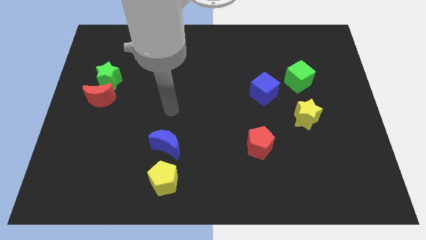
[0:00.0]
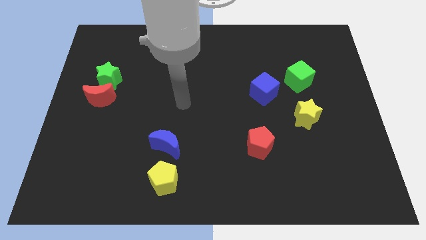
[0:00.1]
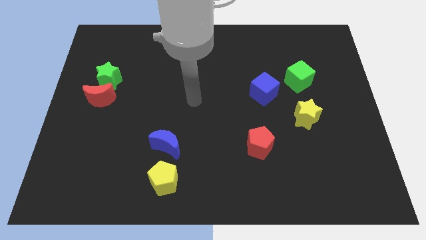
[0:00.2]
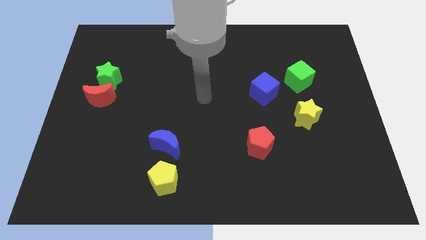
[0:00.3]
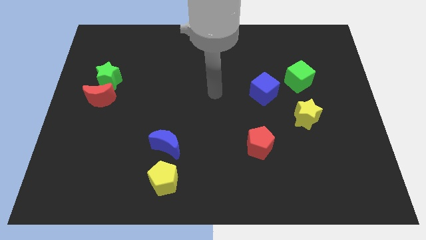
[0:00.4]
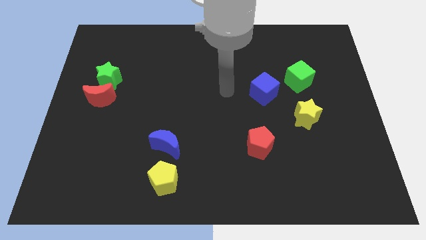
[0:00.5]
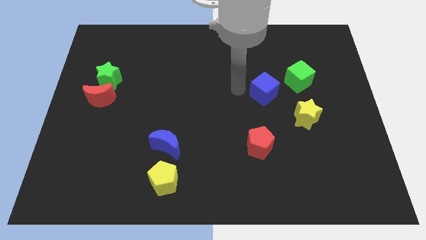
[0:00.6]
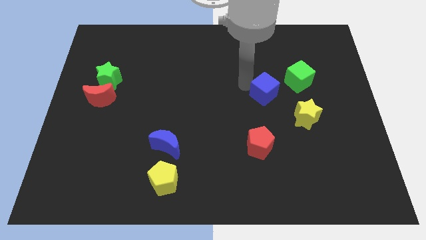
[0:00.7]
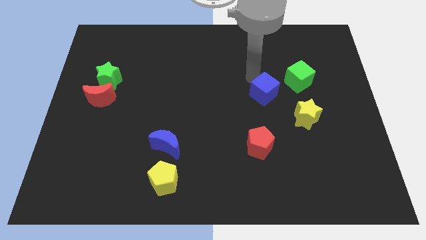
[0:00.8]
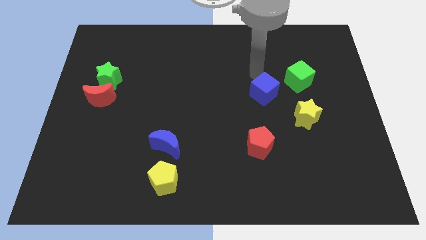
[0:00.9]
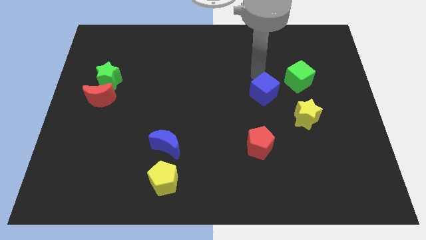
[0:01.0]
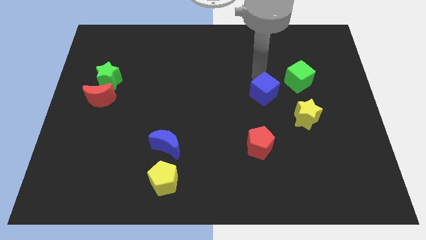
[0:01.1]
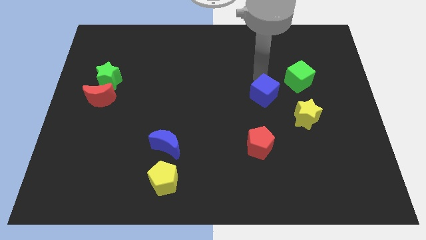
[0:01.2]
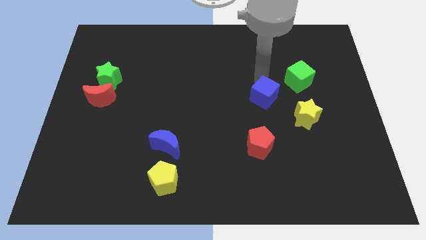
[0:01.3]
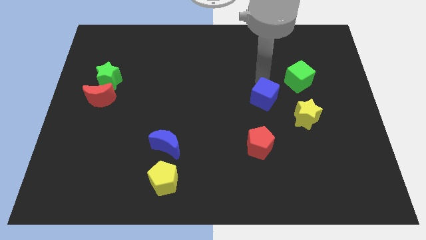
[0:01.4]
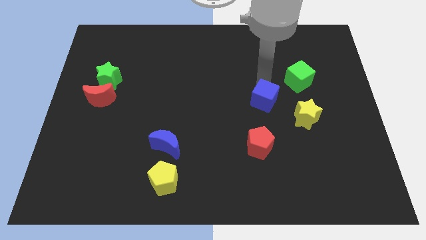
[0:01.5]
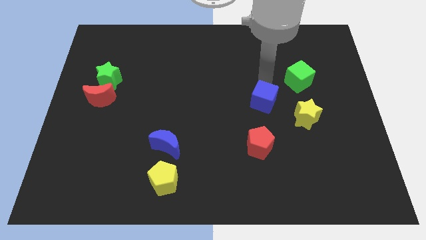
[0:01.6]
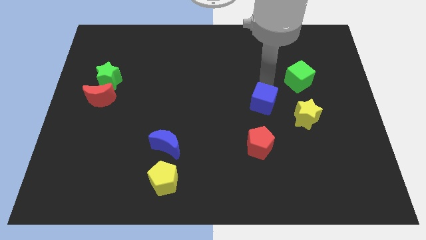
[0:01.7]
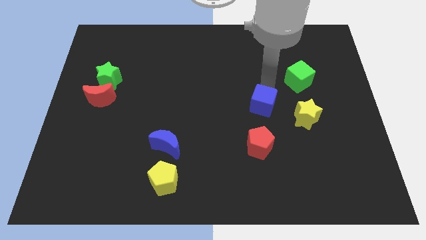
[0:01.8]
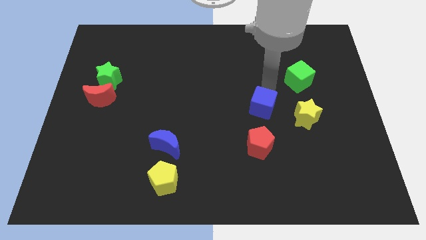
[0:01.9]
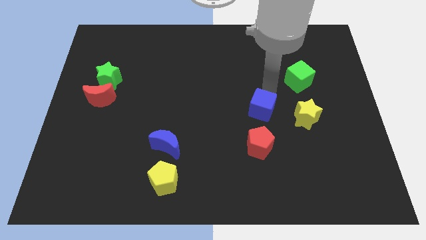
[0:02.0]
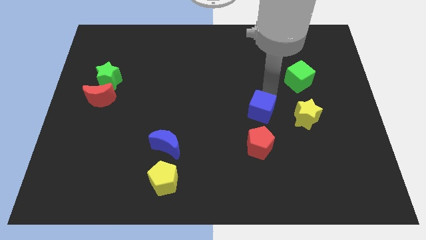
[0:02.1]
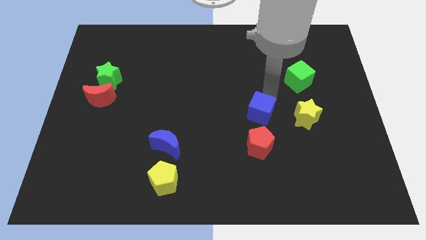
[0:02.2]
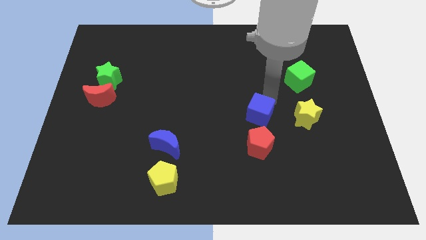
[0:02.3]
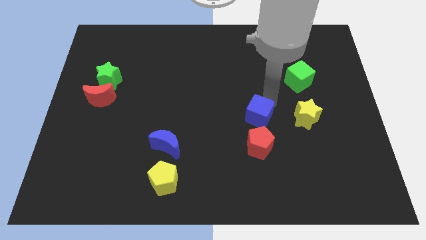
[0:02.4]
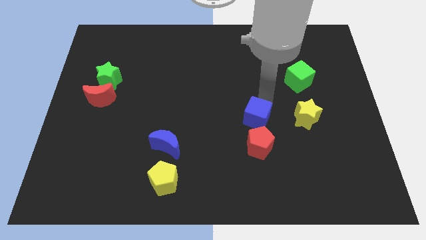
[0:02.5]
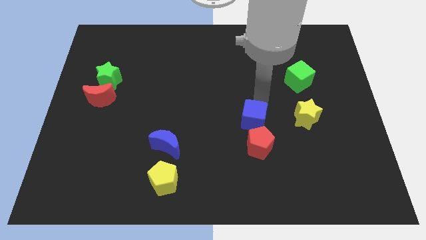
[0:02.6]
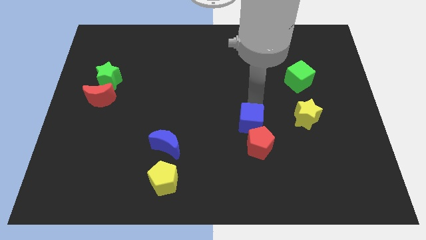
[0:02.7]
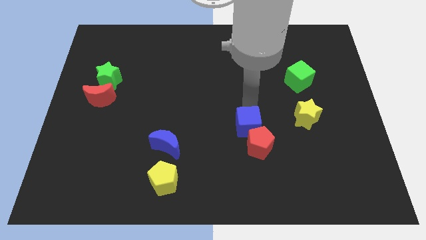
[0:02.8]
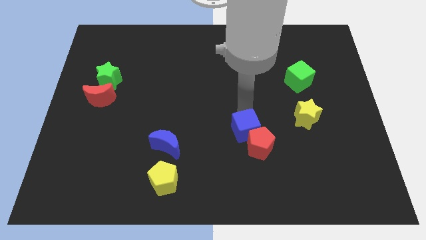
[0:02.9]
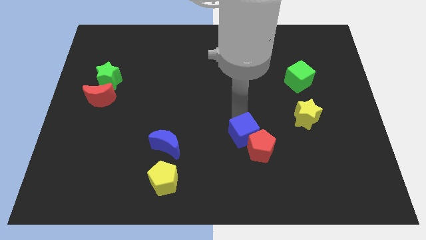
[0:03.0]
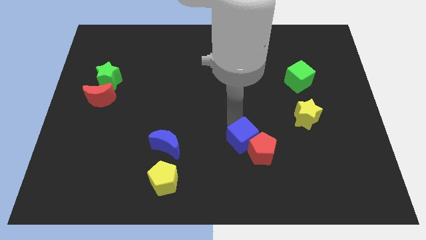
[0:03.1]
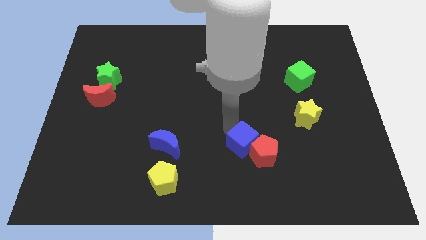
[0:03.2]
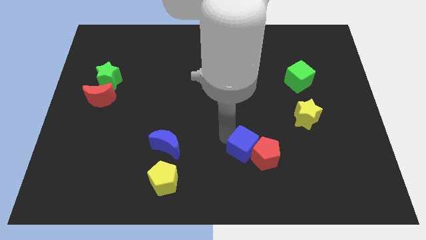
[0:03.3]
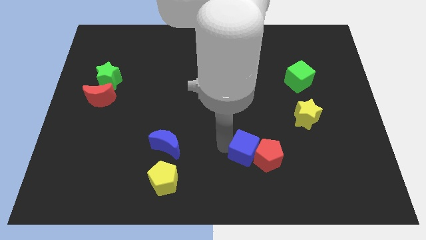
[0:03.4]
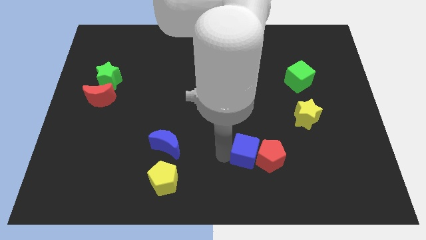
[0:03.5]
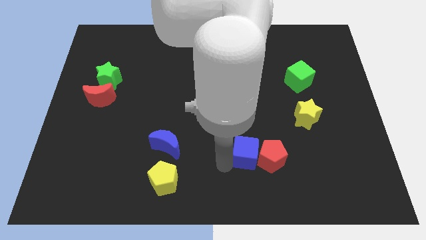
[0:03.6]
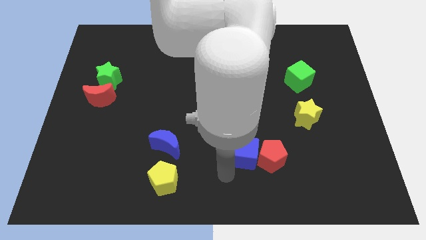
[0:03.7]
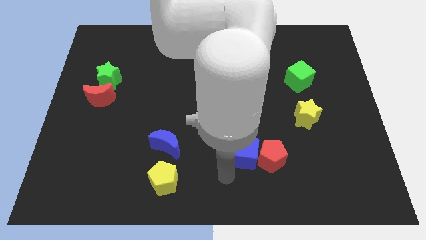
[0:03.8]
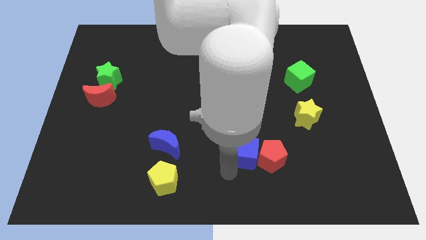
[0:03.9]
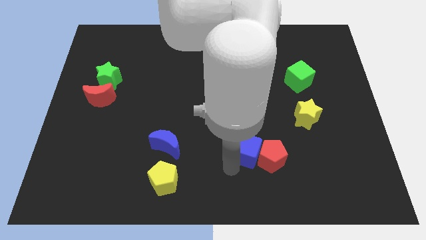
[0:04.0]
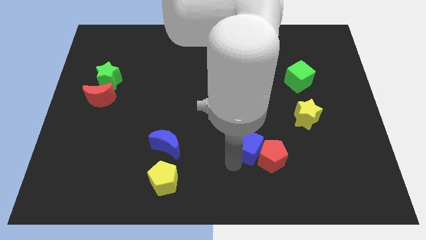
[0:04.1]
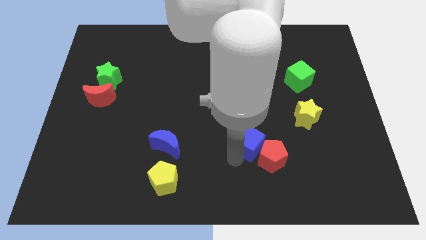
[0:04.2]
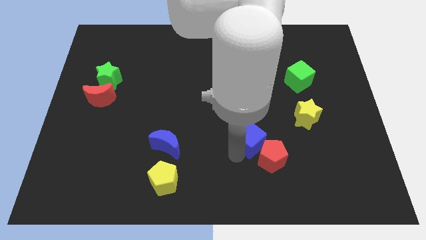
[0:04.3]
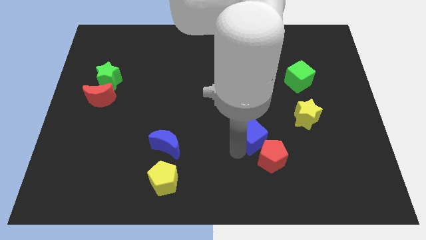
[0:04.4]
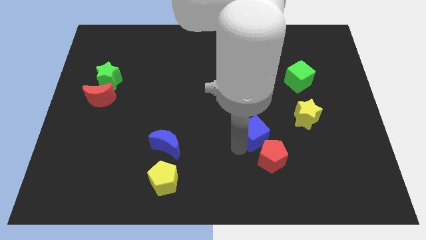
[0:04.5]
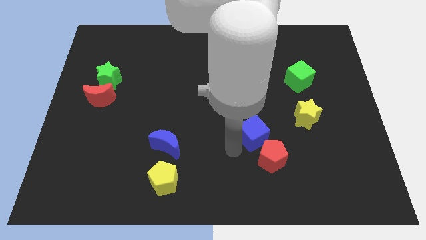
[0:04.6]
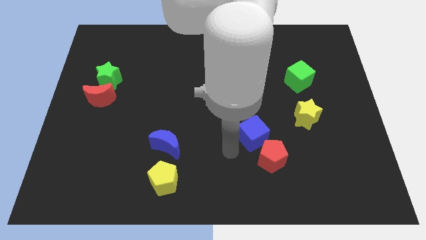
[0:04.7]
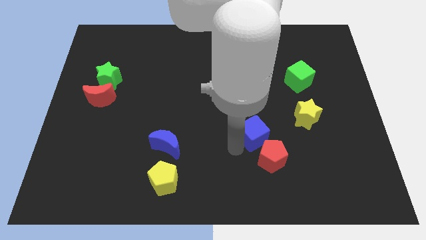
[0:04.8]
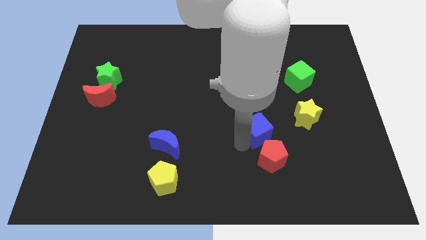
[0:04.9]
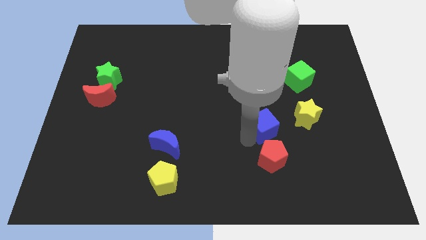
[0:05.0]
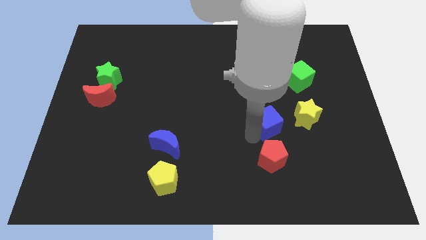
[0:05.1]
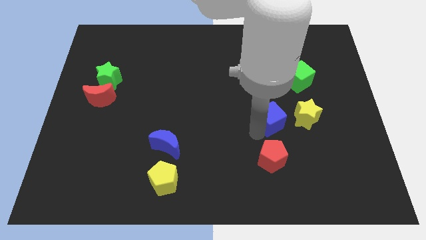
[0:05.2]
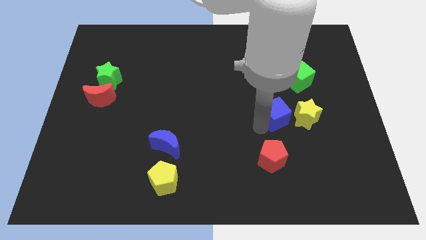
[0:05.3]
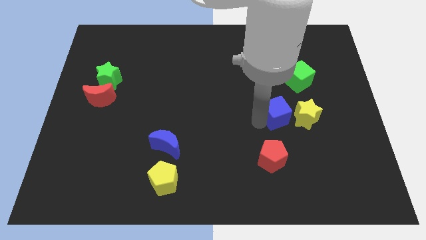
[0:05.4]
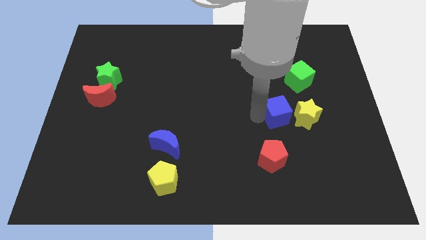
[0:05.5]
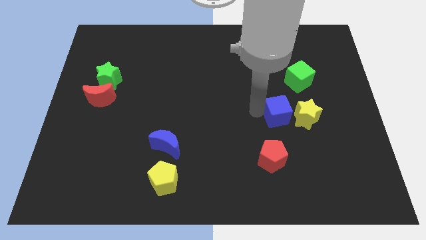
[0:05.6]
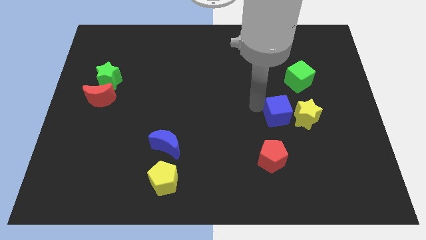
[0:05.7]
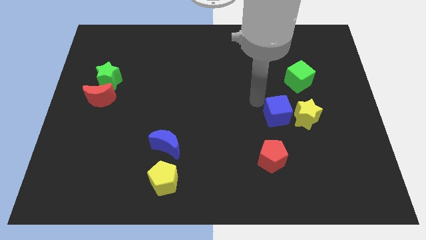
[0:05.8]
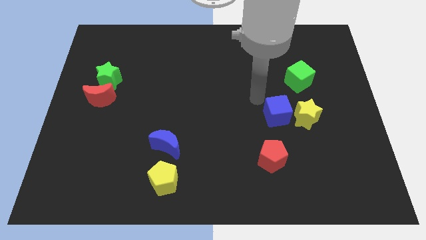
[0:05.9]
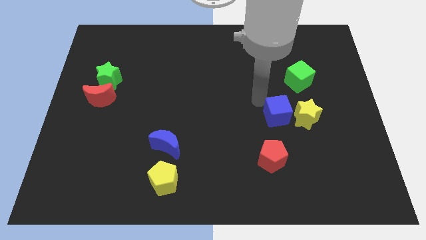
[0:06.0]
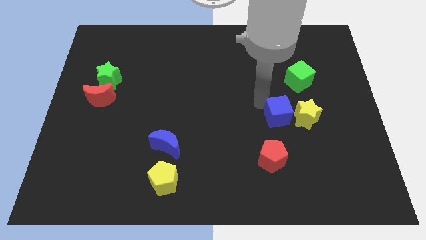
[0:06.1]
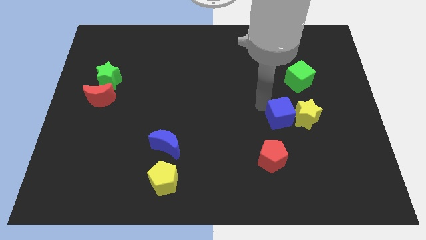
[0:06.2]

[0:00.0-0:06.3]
slide the blue cube slightly down and right

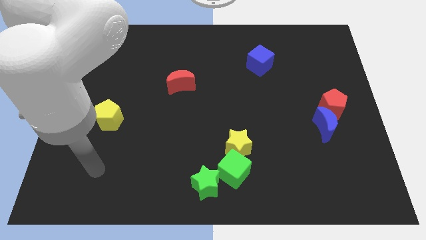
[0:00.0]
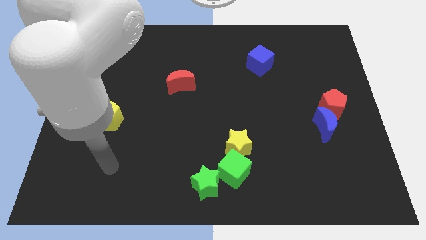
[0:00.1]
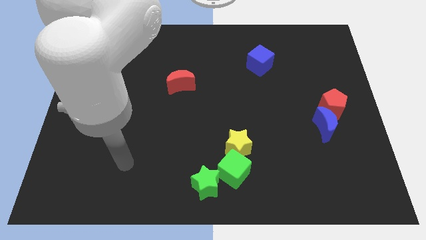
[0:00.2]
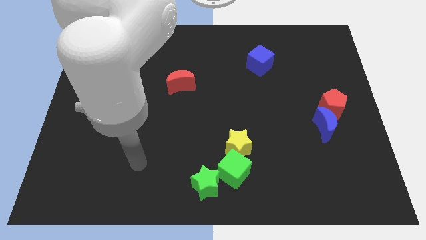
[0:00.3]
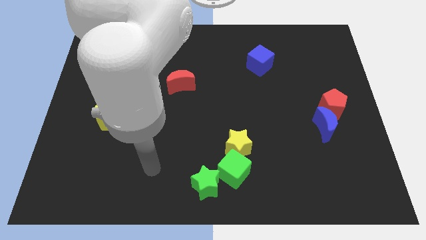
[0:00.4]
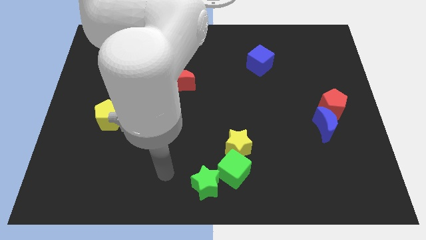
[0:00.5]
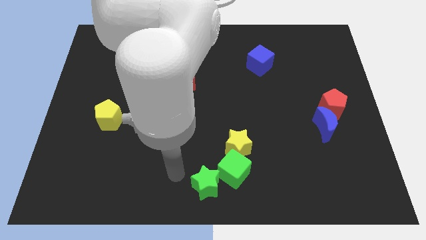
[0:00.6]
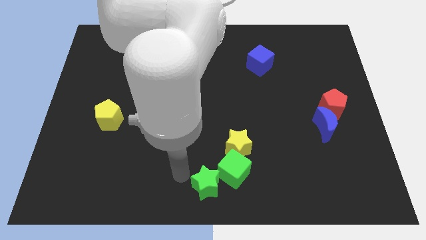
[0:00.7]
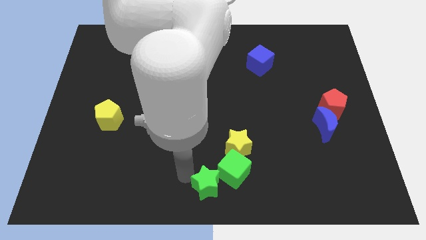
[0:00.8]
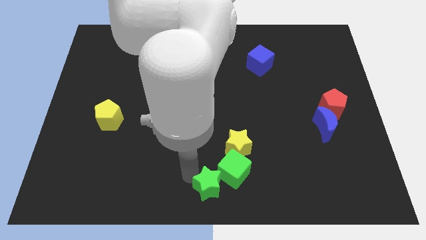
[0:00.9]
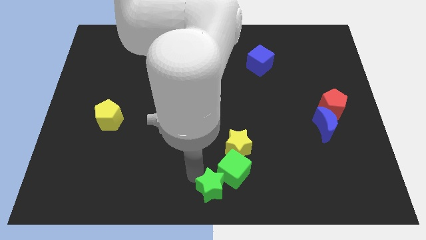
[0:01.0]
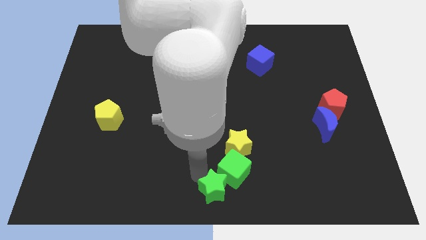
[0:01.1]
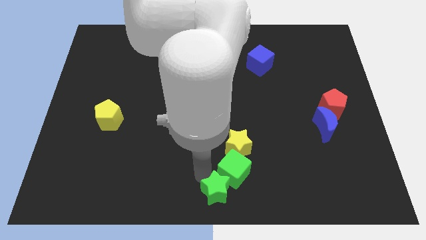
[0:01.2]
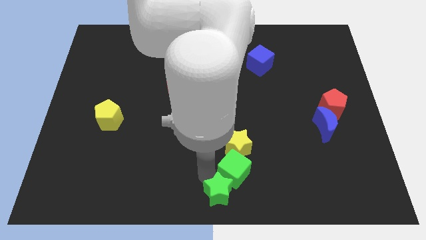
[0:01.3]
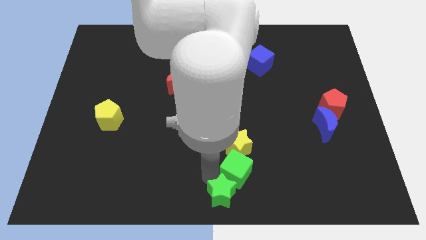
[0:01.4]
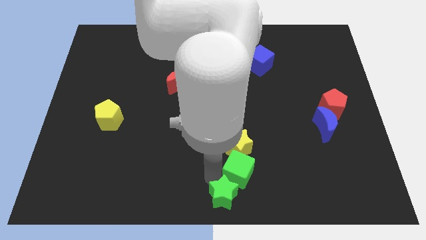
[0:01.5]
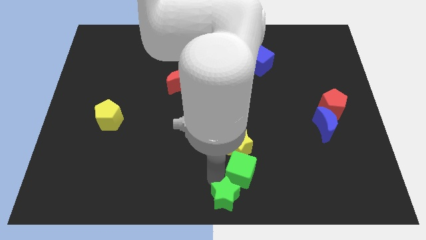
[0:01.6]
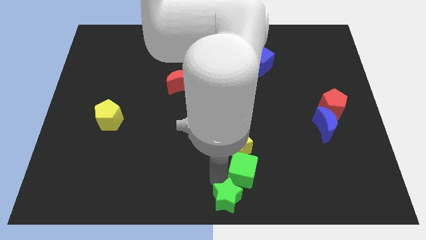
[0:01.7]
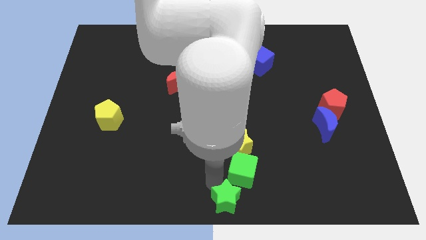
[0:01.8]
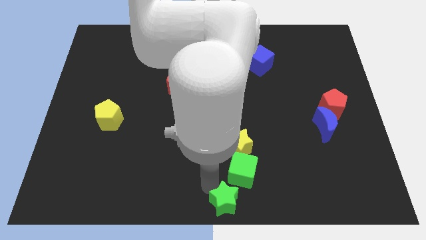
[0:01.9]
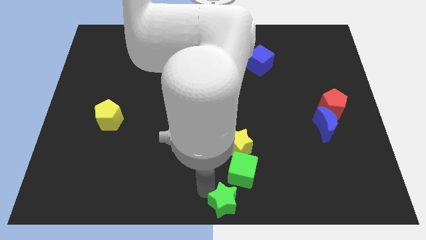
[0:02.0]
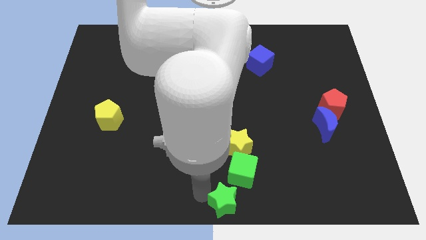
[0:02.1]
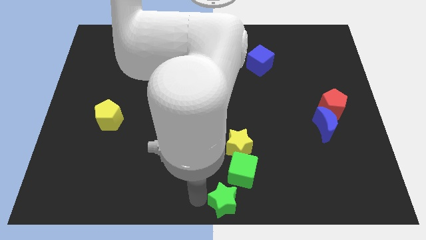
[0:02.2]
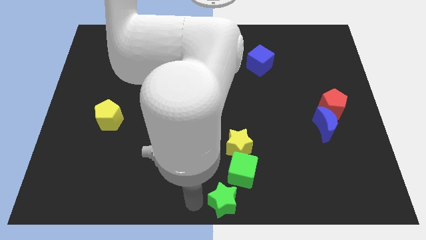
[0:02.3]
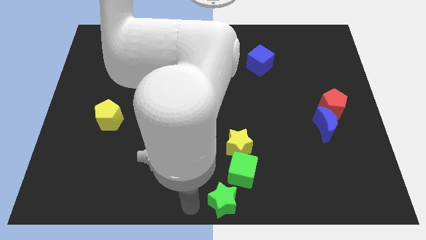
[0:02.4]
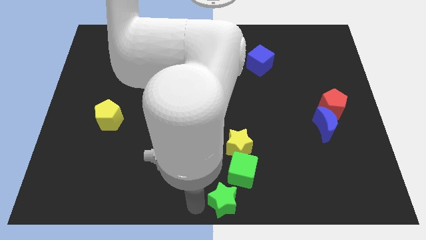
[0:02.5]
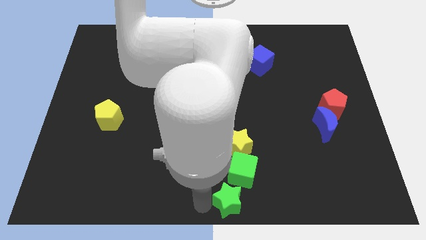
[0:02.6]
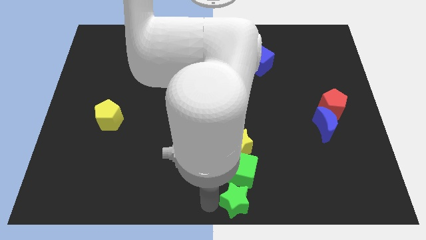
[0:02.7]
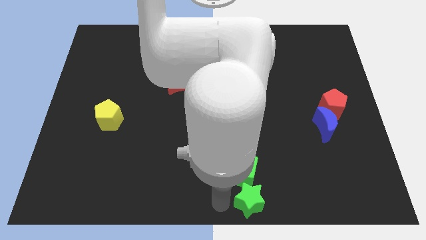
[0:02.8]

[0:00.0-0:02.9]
push the green star to the right a little bit
